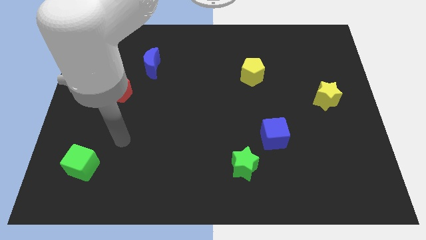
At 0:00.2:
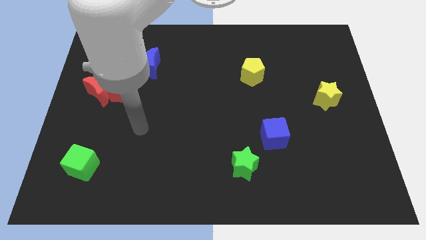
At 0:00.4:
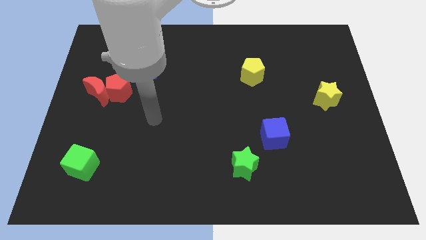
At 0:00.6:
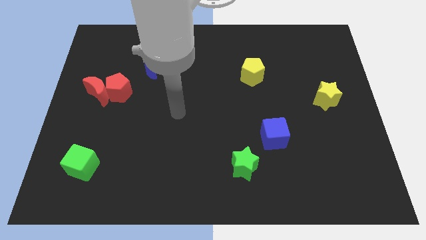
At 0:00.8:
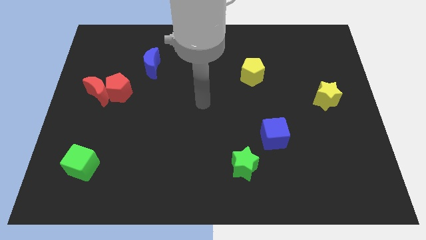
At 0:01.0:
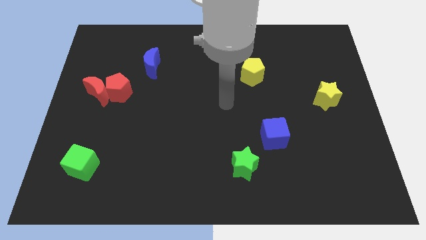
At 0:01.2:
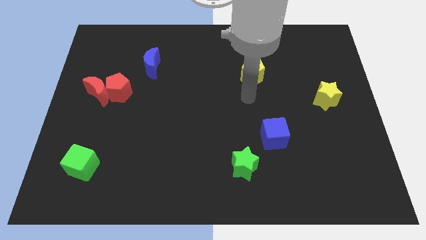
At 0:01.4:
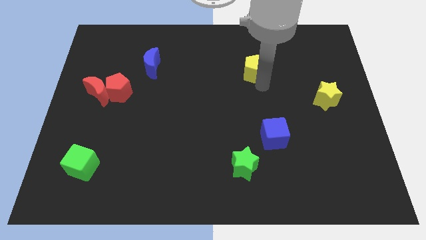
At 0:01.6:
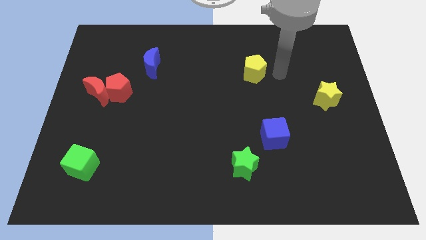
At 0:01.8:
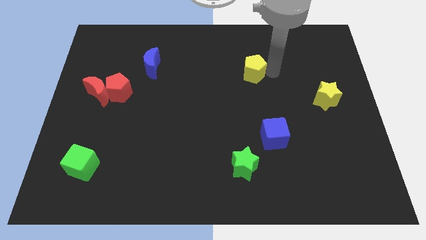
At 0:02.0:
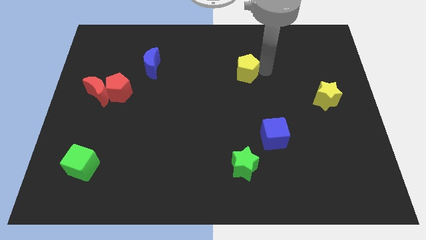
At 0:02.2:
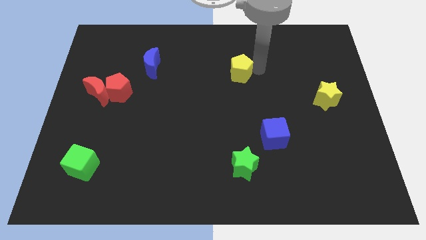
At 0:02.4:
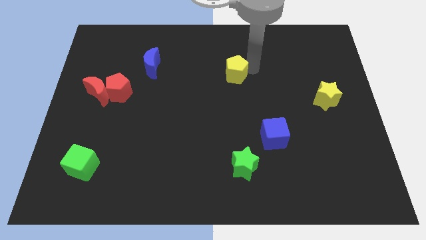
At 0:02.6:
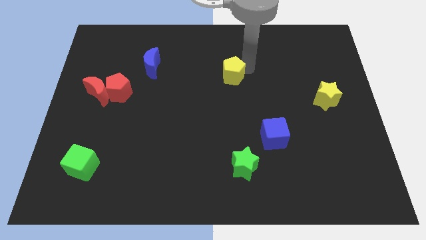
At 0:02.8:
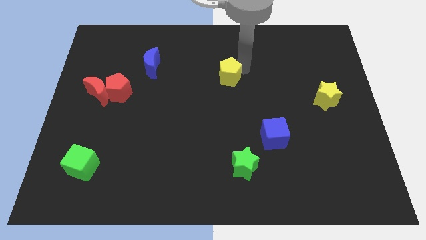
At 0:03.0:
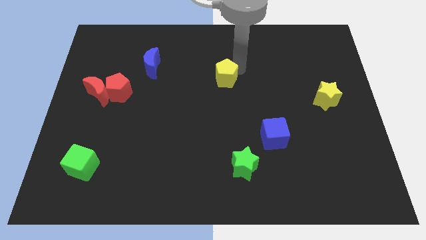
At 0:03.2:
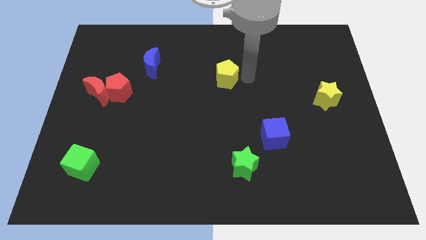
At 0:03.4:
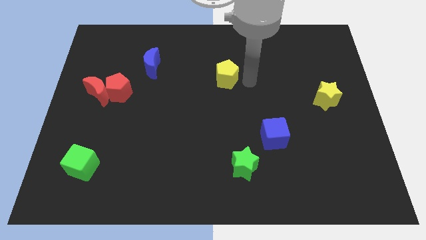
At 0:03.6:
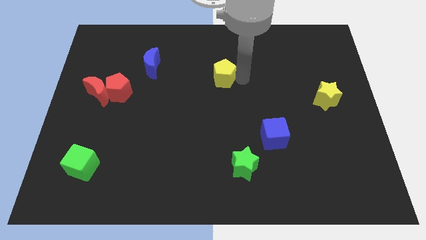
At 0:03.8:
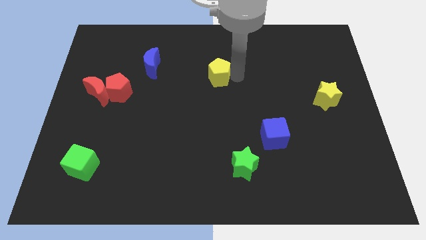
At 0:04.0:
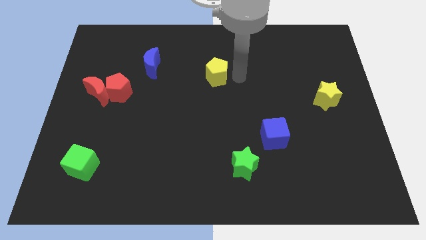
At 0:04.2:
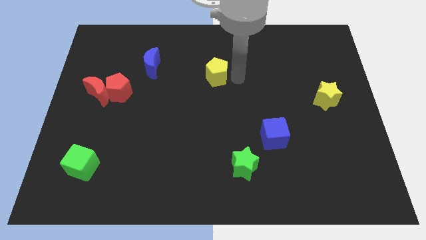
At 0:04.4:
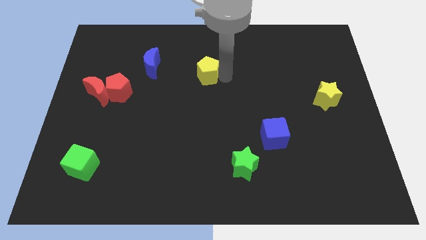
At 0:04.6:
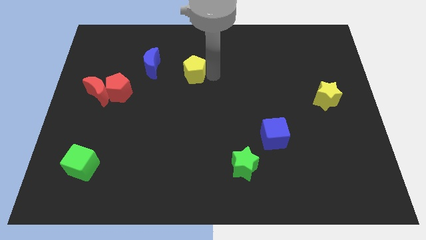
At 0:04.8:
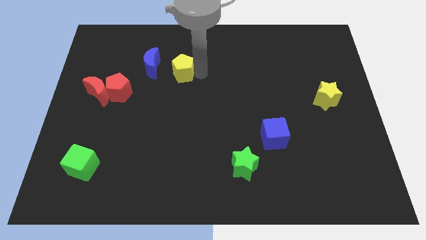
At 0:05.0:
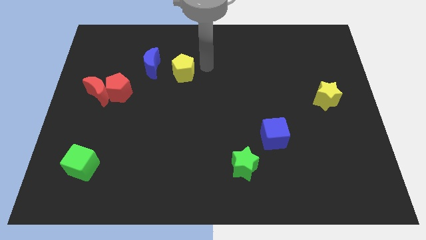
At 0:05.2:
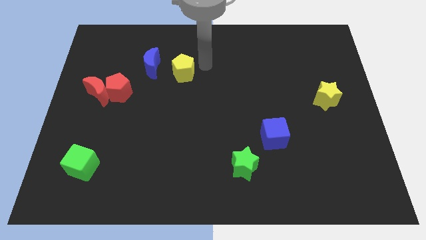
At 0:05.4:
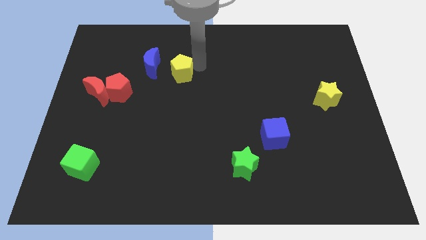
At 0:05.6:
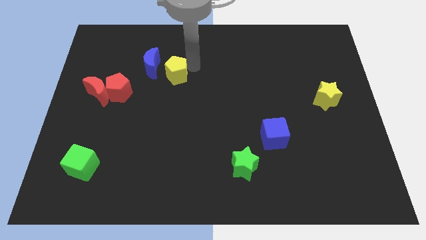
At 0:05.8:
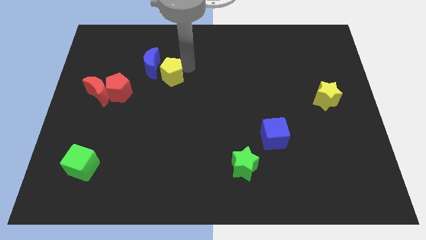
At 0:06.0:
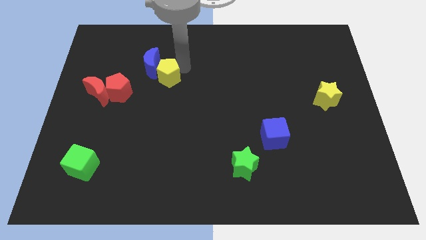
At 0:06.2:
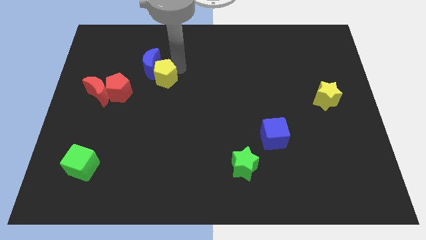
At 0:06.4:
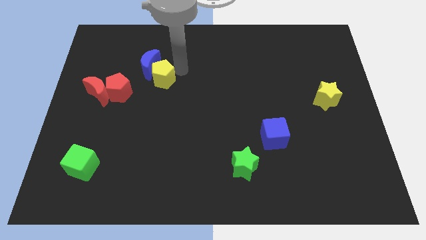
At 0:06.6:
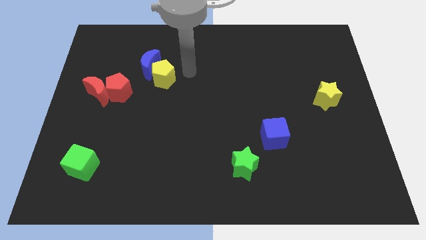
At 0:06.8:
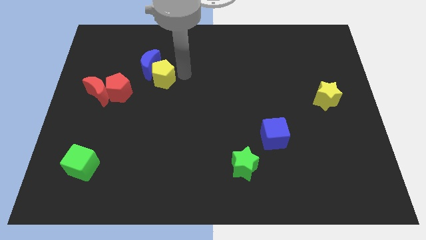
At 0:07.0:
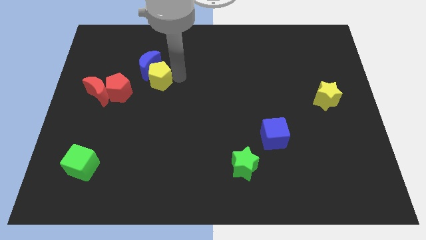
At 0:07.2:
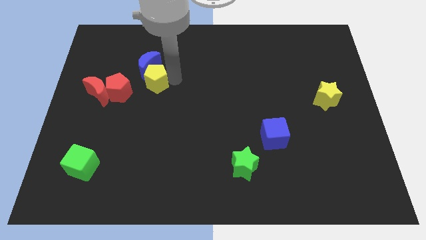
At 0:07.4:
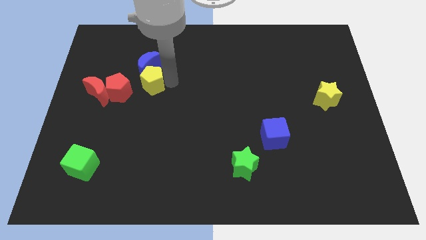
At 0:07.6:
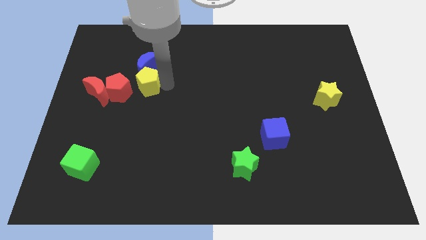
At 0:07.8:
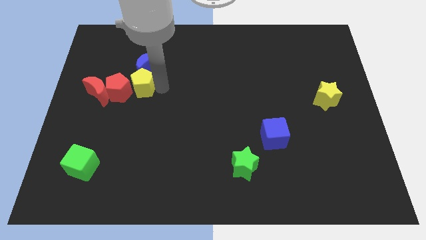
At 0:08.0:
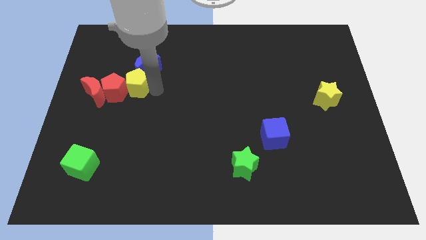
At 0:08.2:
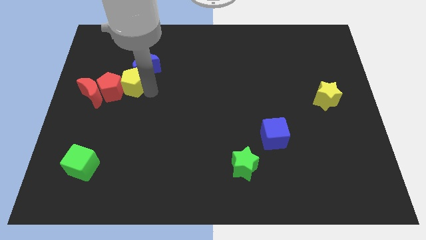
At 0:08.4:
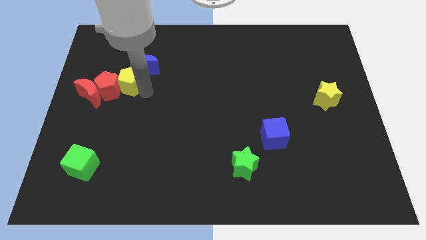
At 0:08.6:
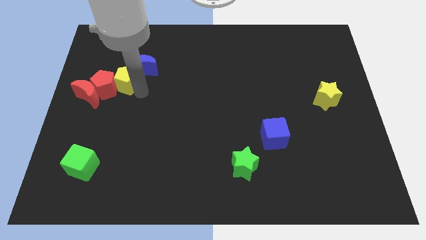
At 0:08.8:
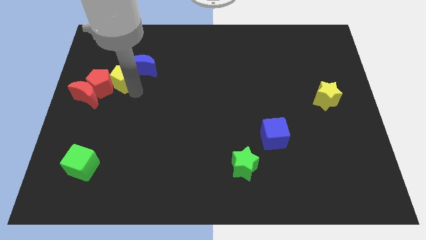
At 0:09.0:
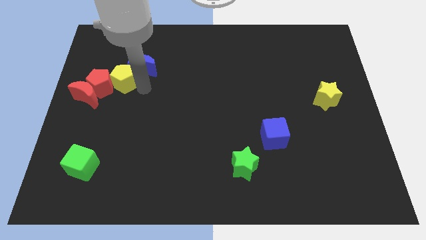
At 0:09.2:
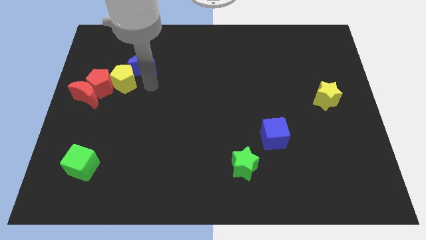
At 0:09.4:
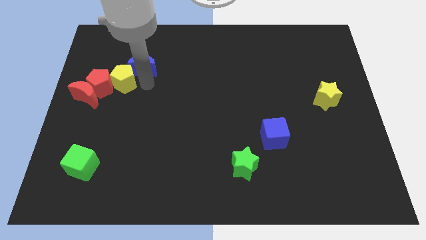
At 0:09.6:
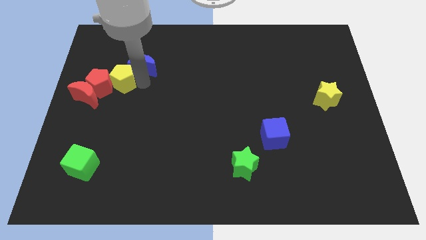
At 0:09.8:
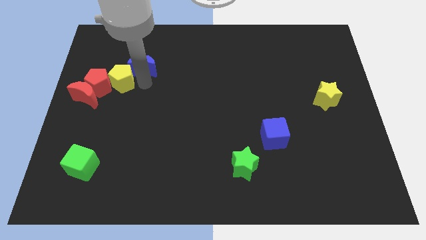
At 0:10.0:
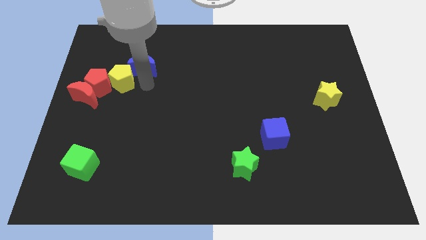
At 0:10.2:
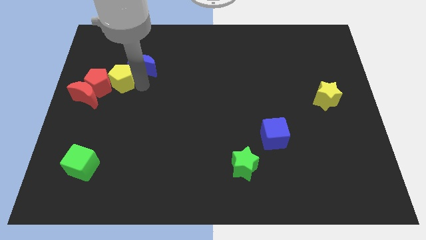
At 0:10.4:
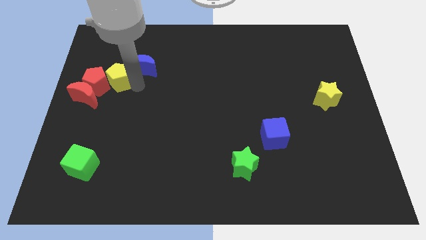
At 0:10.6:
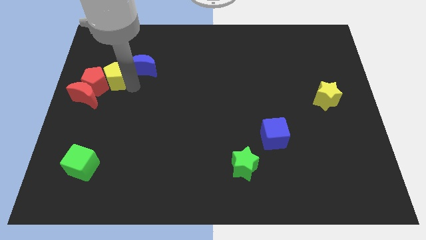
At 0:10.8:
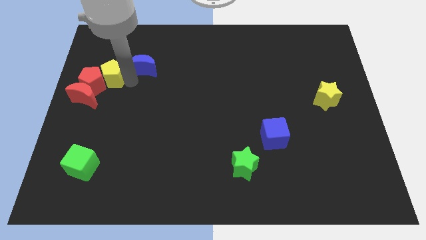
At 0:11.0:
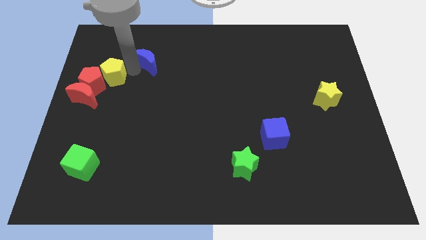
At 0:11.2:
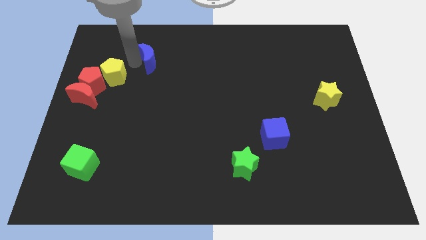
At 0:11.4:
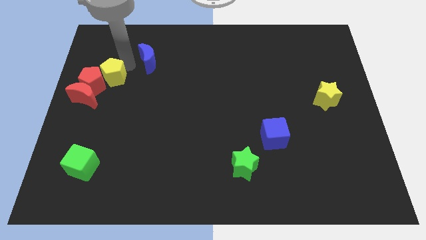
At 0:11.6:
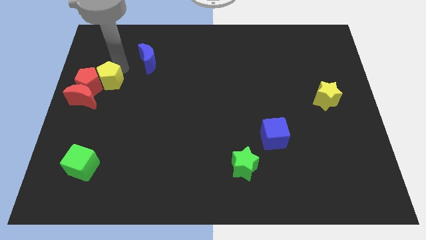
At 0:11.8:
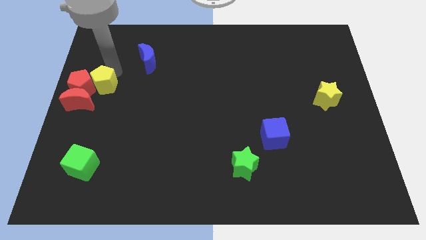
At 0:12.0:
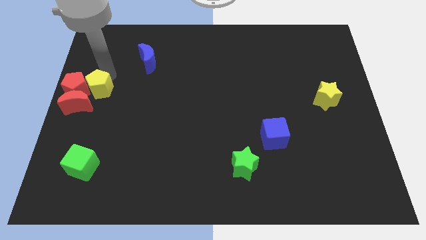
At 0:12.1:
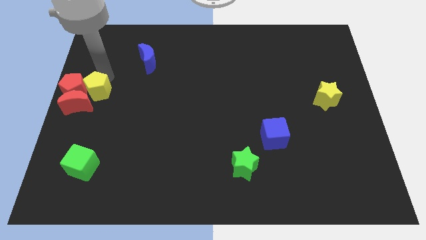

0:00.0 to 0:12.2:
slide the yellow pentagon next to the red moon

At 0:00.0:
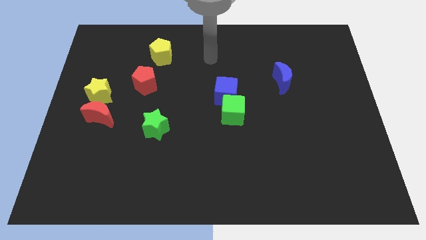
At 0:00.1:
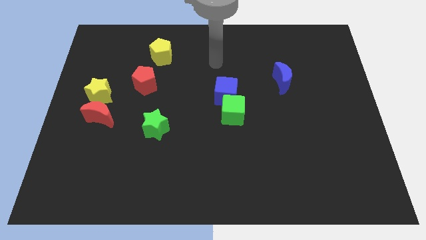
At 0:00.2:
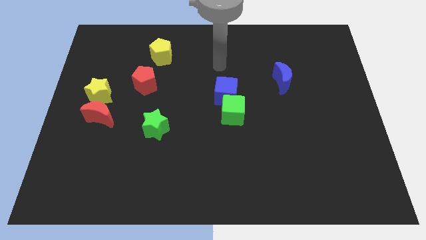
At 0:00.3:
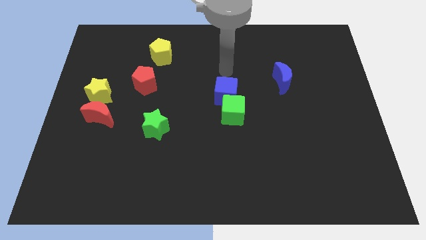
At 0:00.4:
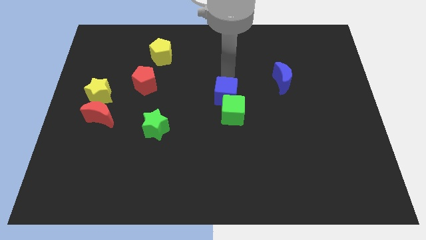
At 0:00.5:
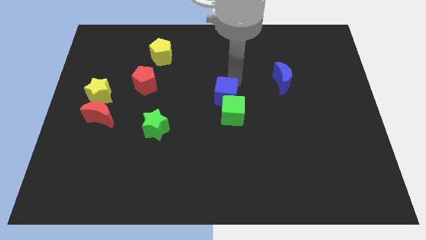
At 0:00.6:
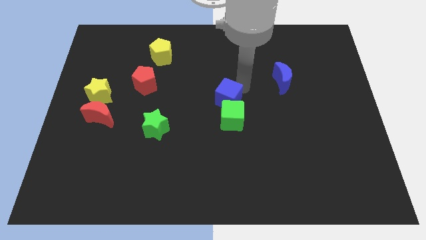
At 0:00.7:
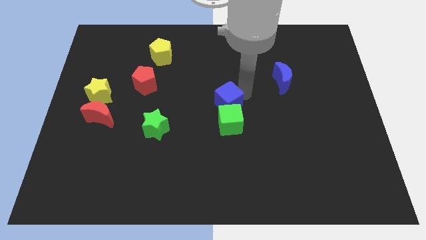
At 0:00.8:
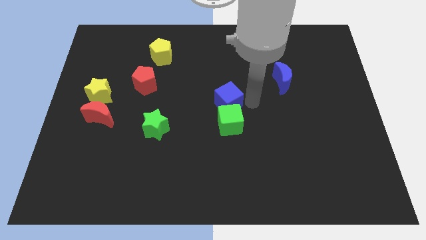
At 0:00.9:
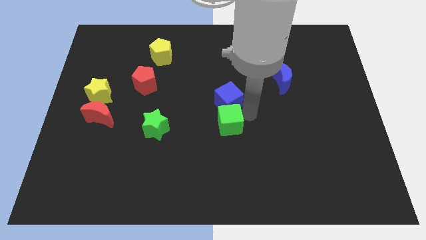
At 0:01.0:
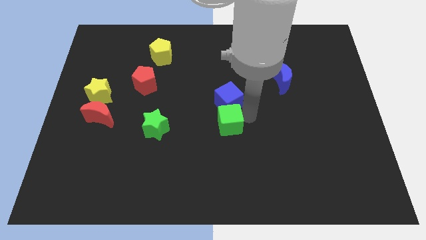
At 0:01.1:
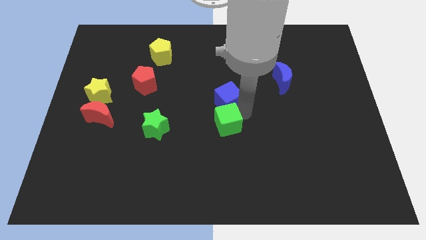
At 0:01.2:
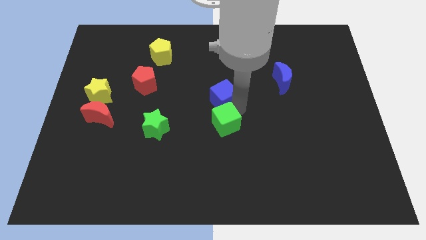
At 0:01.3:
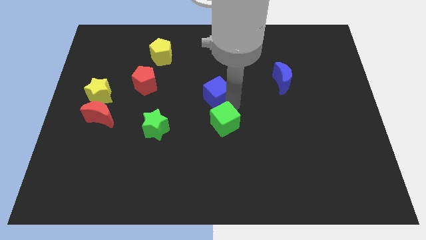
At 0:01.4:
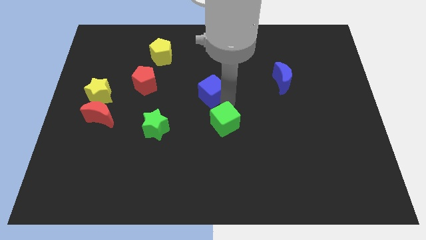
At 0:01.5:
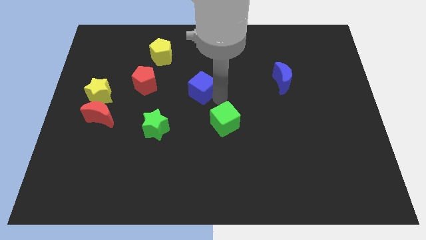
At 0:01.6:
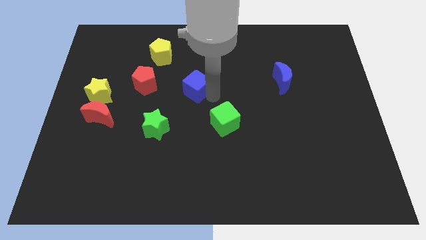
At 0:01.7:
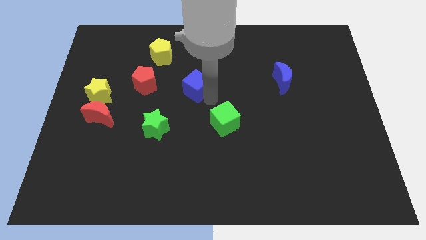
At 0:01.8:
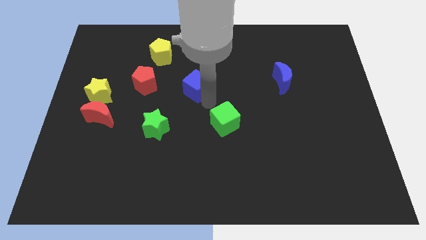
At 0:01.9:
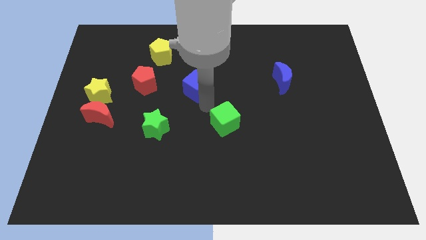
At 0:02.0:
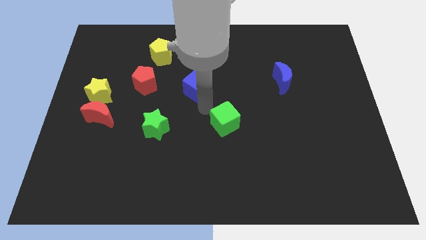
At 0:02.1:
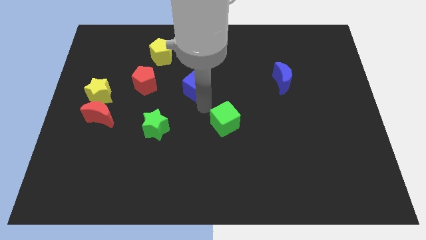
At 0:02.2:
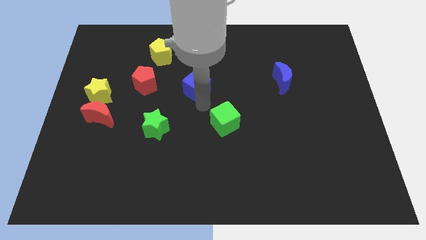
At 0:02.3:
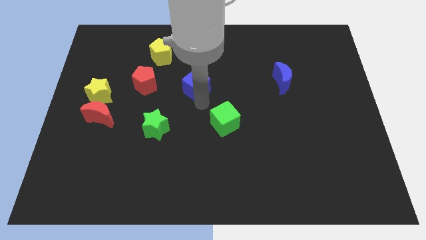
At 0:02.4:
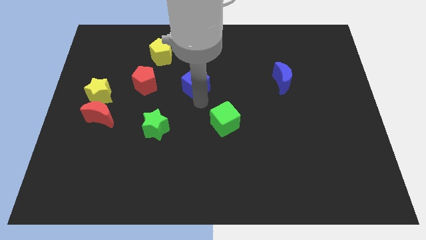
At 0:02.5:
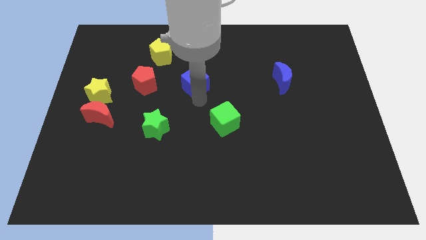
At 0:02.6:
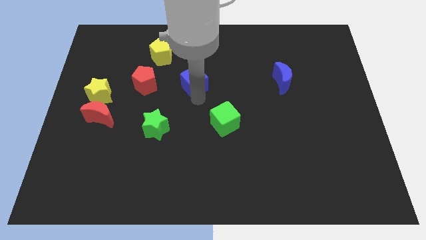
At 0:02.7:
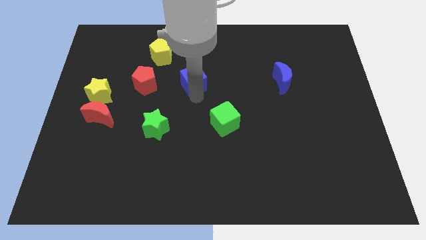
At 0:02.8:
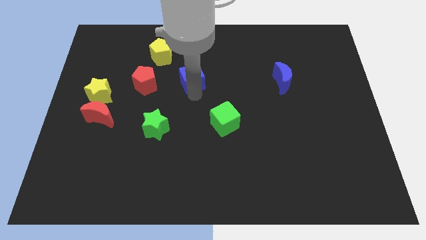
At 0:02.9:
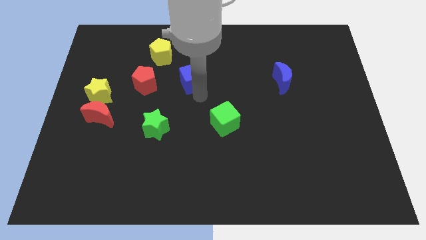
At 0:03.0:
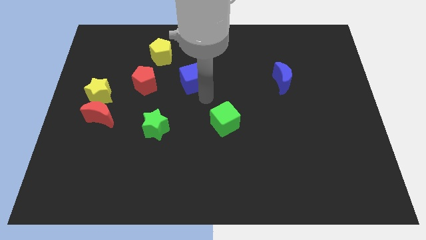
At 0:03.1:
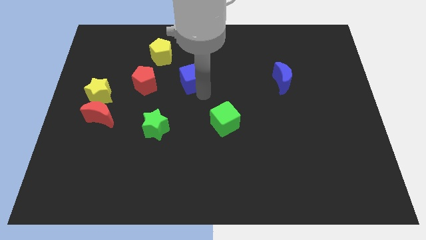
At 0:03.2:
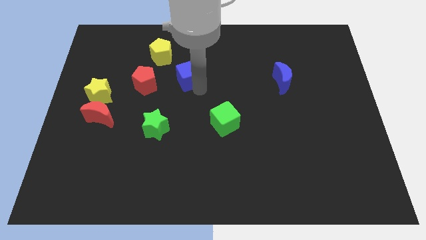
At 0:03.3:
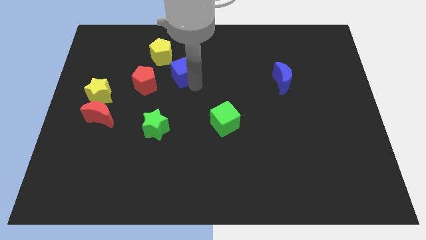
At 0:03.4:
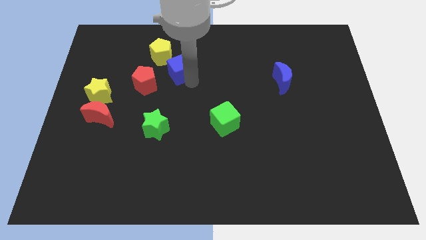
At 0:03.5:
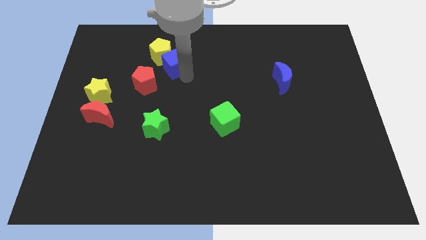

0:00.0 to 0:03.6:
put the blue cube next to the yellow pentagon
